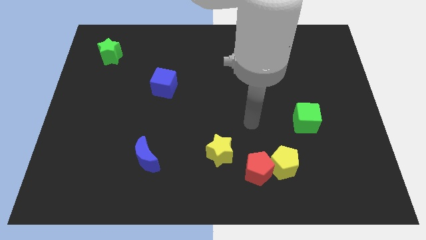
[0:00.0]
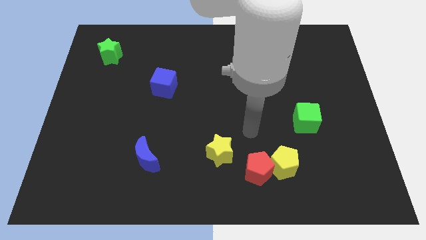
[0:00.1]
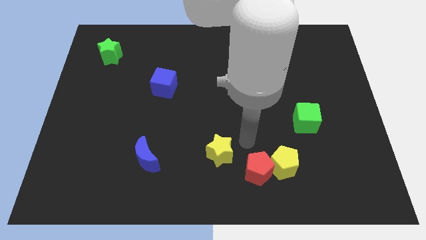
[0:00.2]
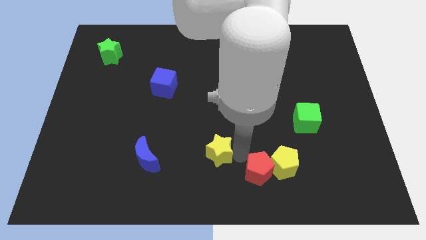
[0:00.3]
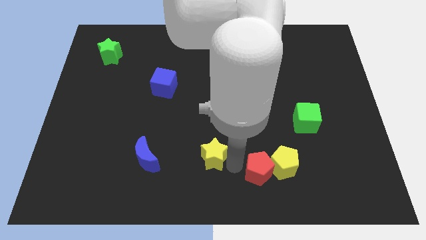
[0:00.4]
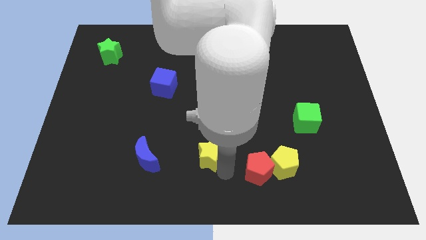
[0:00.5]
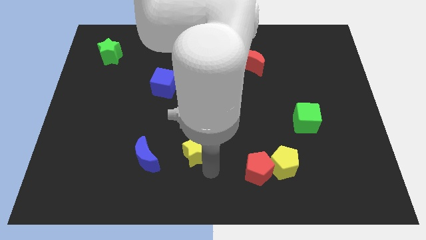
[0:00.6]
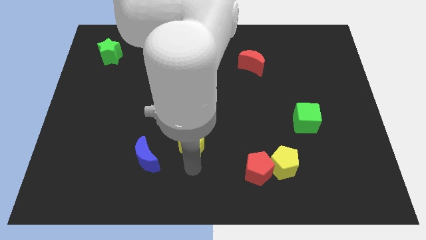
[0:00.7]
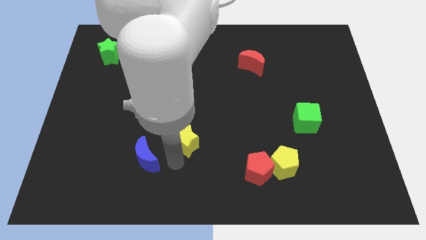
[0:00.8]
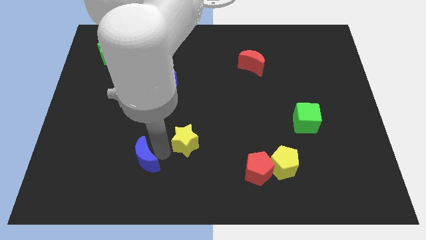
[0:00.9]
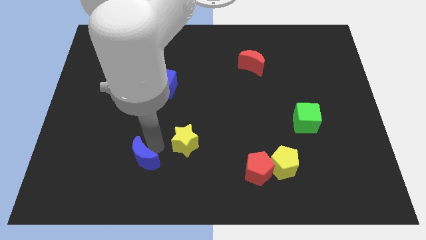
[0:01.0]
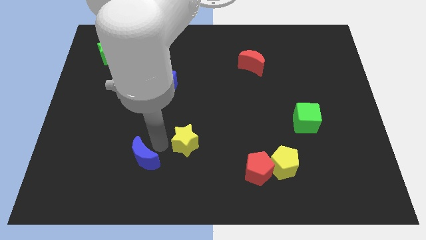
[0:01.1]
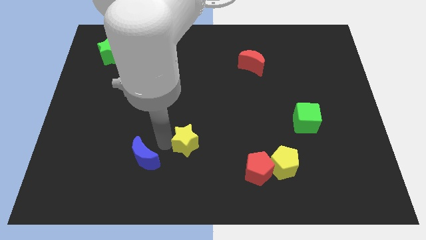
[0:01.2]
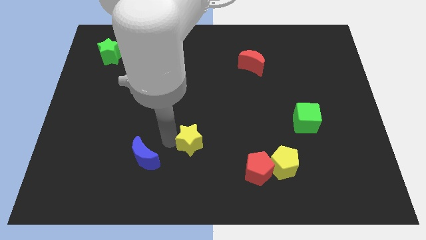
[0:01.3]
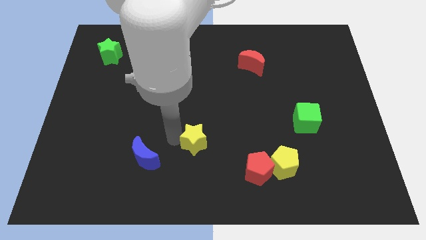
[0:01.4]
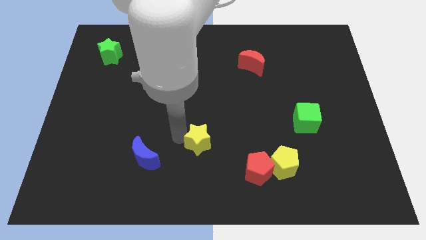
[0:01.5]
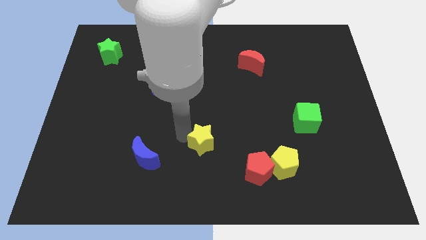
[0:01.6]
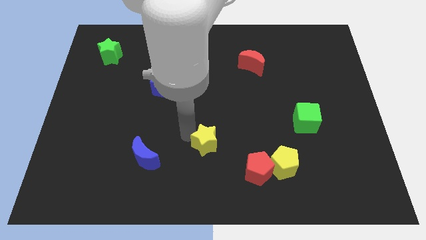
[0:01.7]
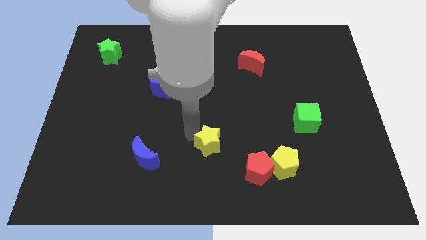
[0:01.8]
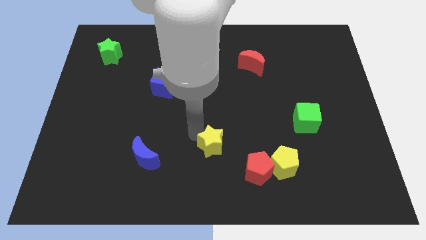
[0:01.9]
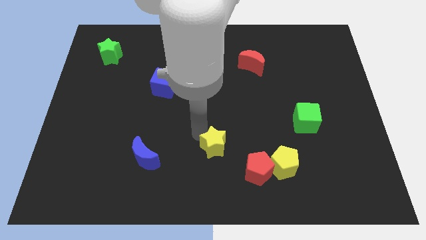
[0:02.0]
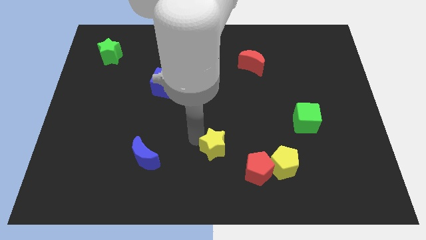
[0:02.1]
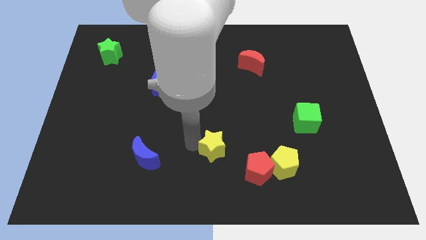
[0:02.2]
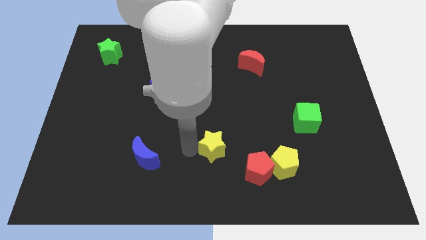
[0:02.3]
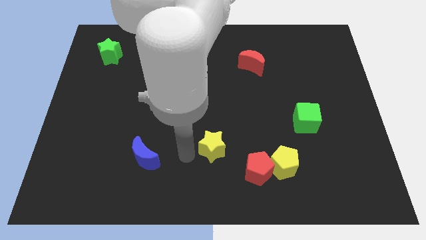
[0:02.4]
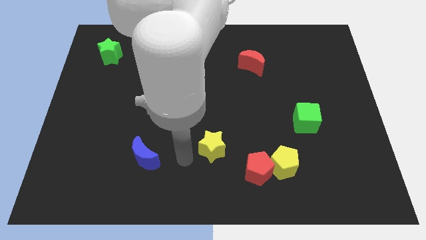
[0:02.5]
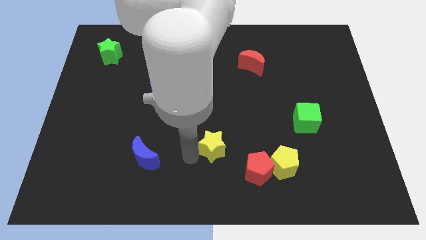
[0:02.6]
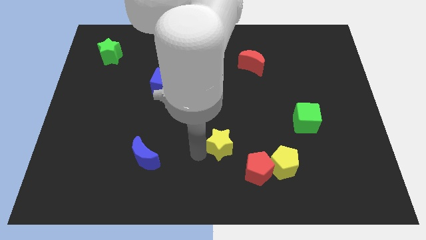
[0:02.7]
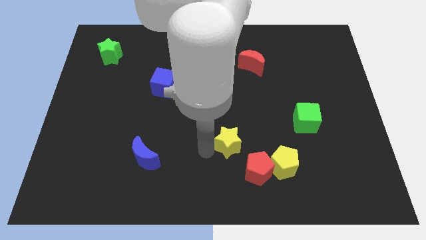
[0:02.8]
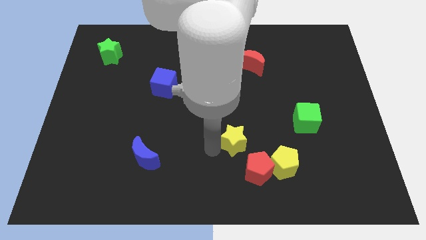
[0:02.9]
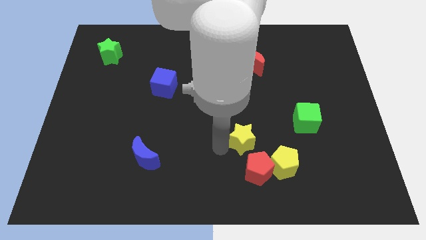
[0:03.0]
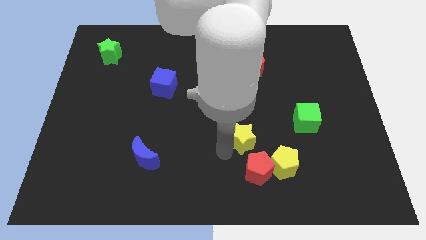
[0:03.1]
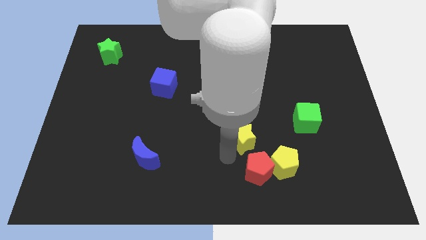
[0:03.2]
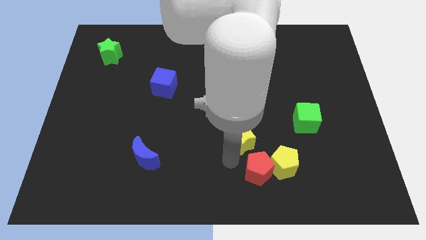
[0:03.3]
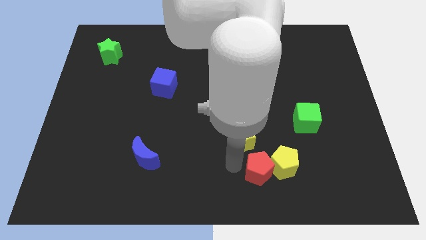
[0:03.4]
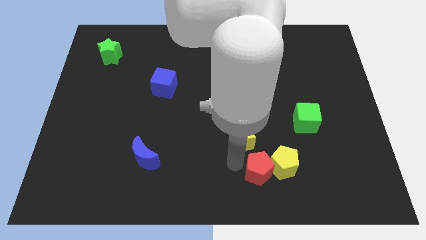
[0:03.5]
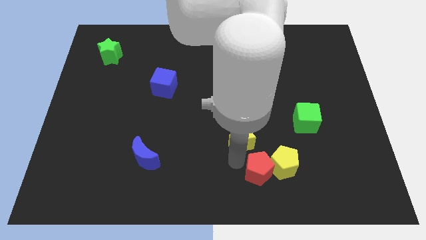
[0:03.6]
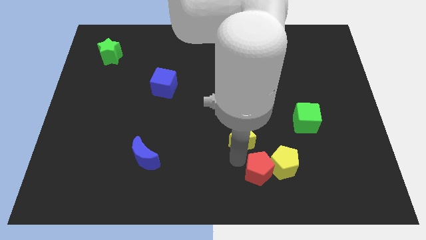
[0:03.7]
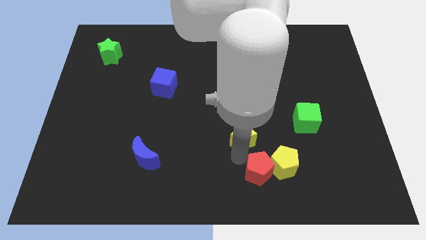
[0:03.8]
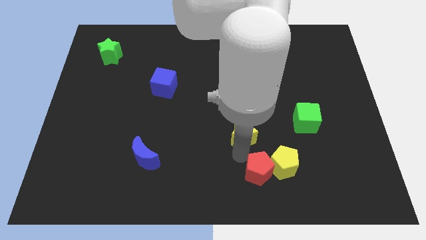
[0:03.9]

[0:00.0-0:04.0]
slightly move the yellow star upwards and to the right diagonally

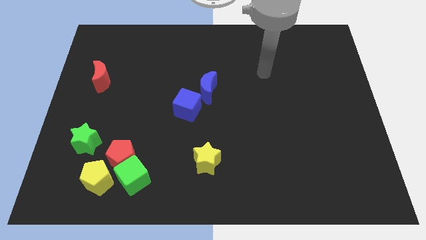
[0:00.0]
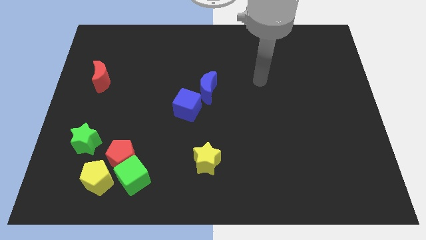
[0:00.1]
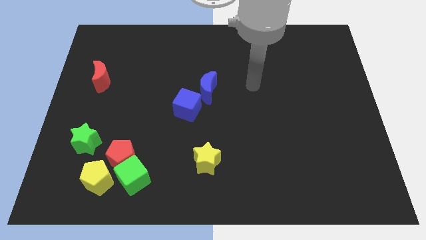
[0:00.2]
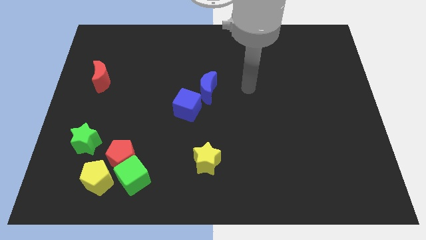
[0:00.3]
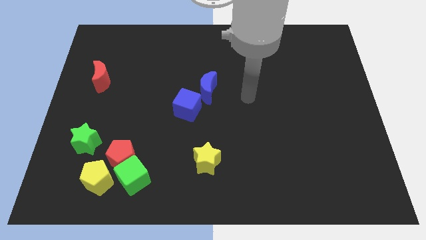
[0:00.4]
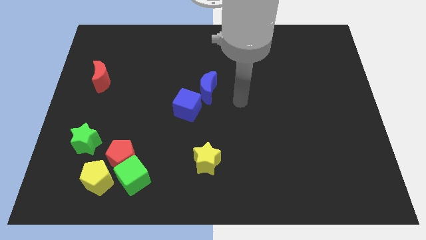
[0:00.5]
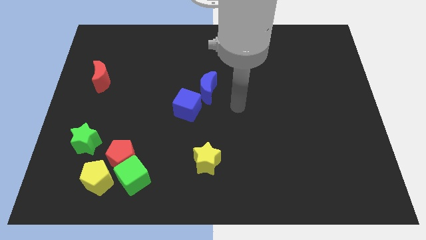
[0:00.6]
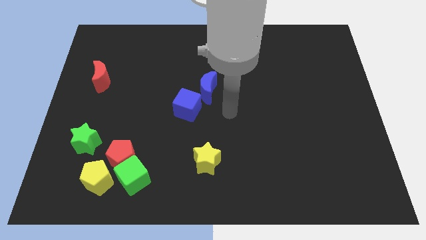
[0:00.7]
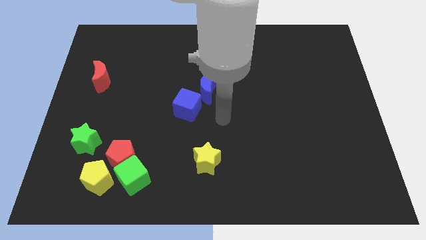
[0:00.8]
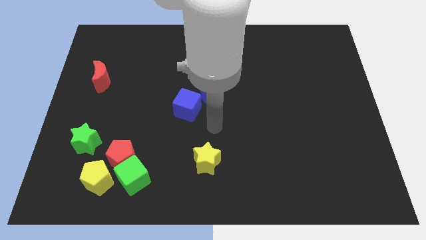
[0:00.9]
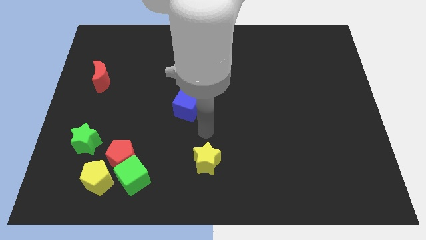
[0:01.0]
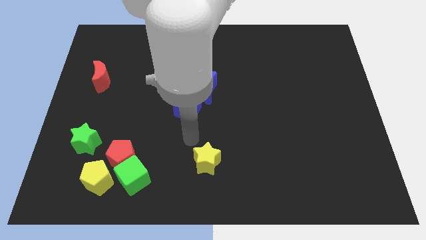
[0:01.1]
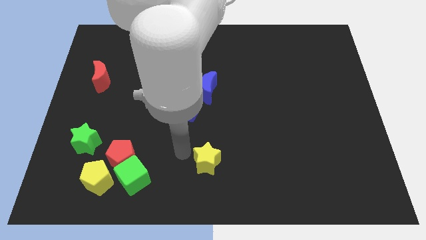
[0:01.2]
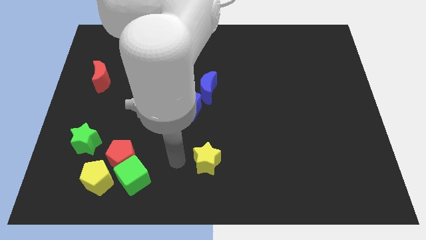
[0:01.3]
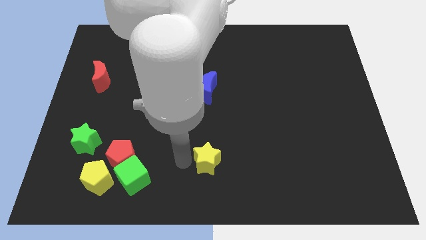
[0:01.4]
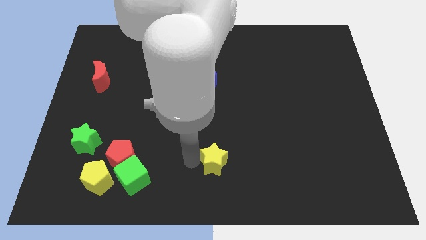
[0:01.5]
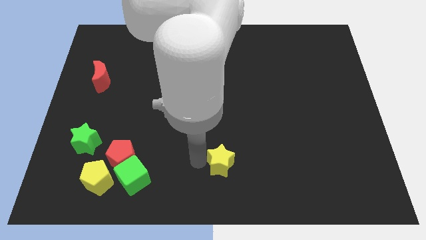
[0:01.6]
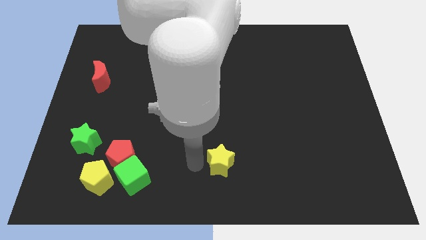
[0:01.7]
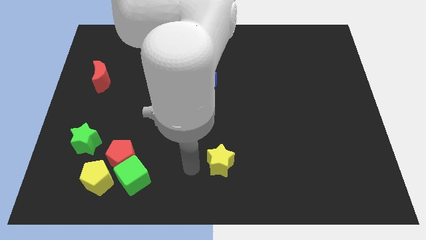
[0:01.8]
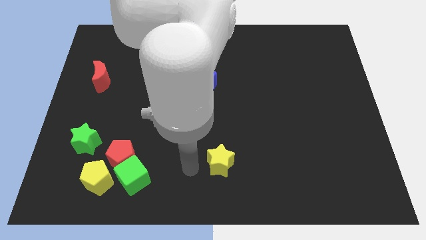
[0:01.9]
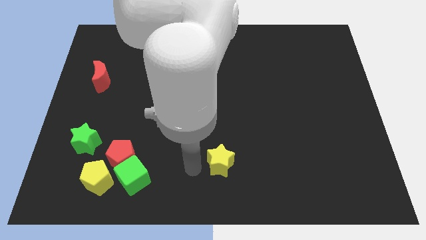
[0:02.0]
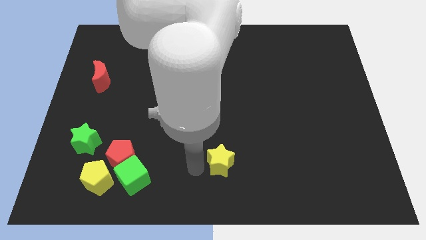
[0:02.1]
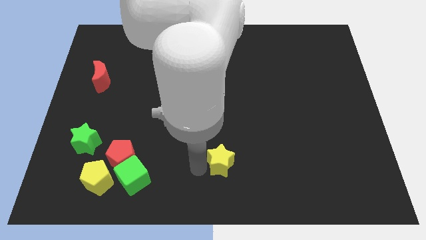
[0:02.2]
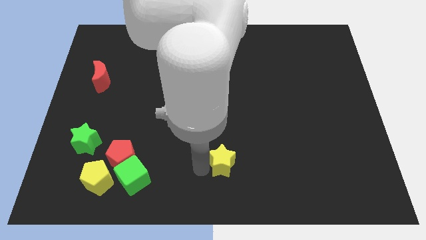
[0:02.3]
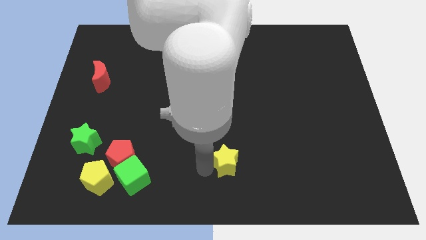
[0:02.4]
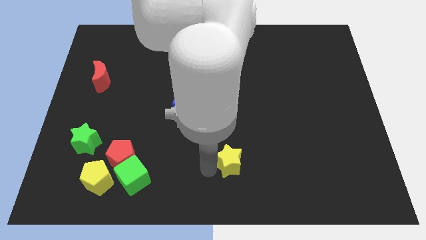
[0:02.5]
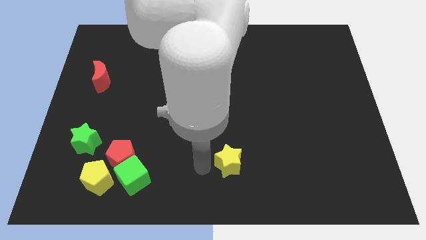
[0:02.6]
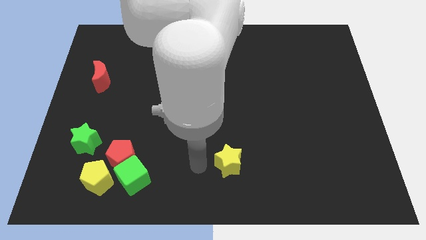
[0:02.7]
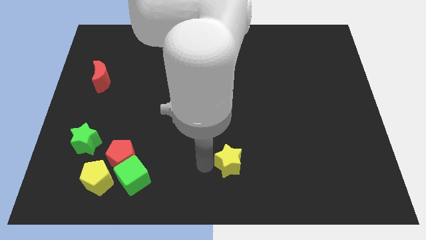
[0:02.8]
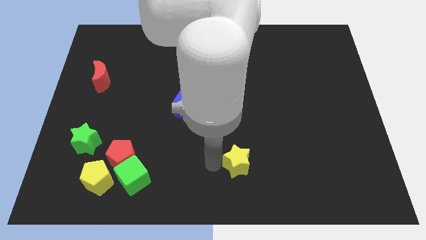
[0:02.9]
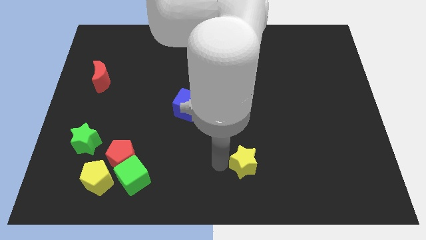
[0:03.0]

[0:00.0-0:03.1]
push the yellow star slightly to the right

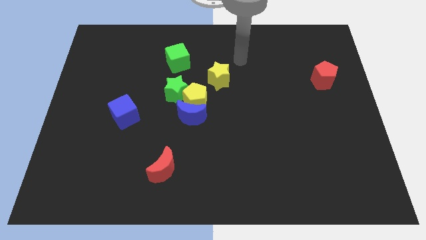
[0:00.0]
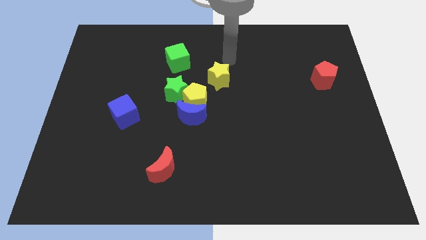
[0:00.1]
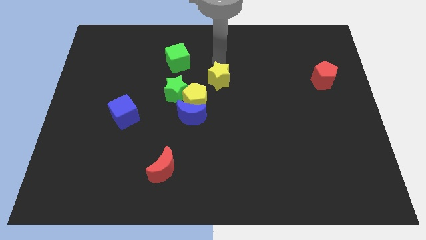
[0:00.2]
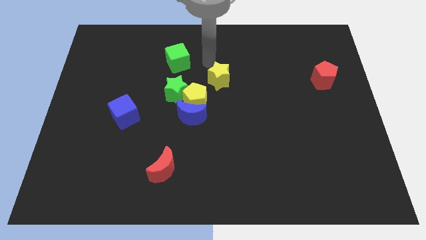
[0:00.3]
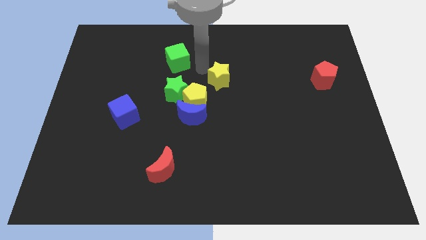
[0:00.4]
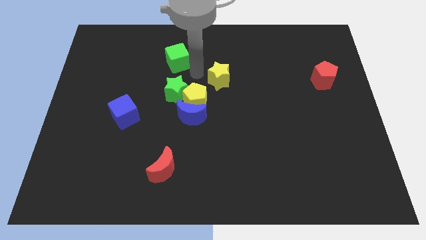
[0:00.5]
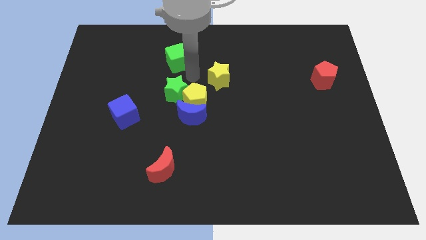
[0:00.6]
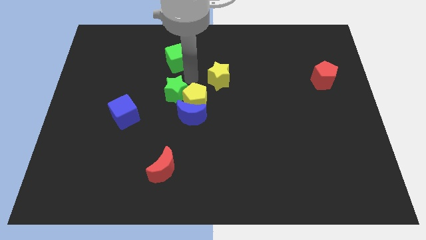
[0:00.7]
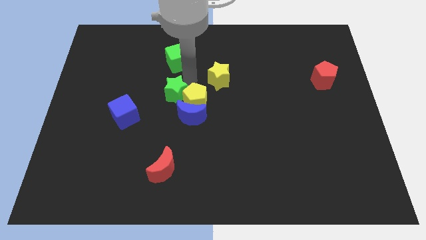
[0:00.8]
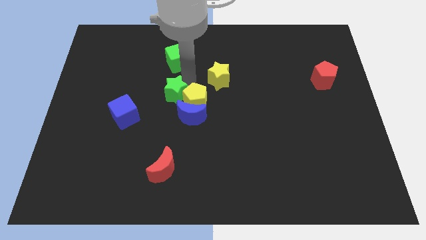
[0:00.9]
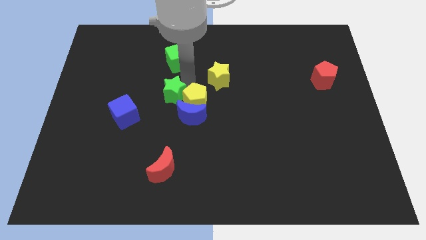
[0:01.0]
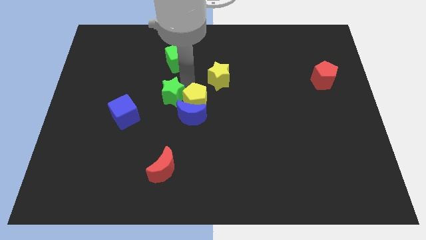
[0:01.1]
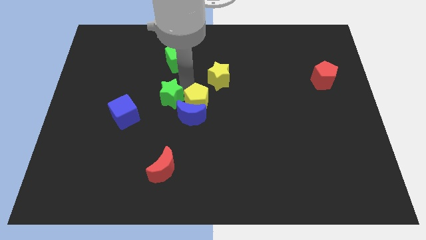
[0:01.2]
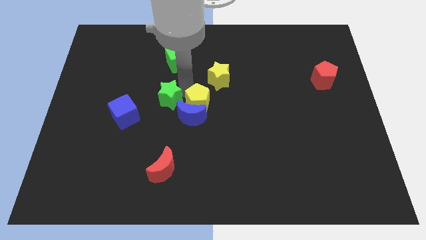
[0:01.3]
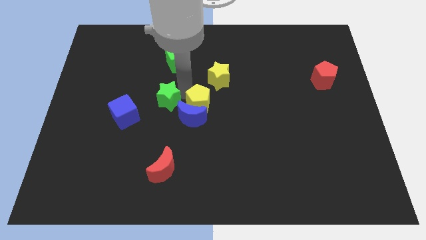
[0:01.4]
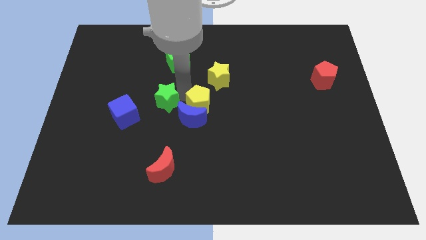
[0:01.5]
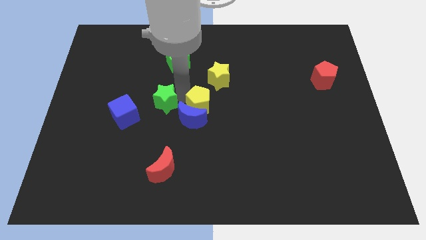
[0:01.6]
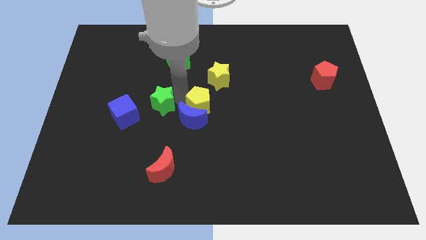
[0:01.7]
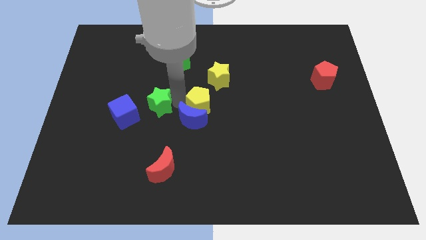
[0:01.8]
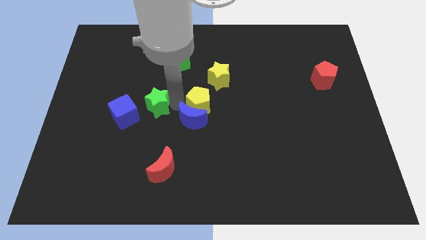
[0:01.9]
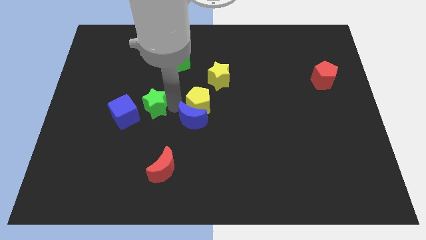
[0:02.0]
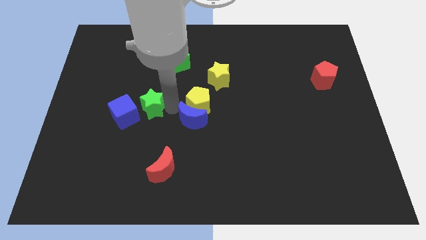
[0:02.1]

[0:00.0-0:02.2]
move the green star down and then to the left a little bit
